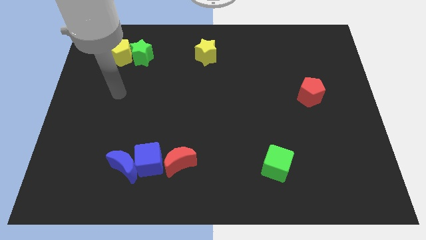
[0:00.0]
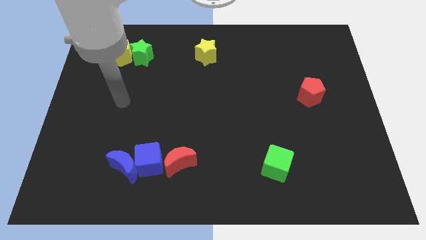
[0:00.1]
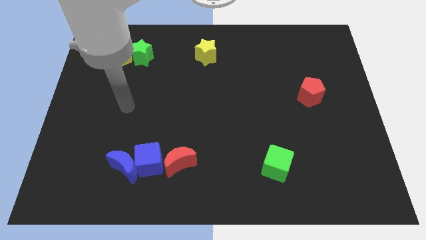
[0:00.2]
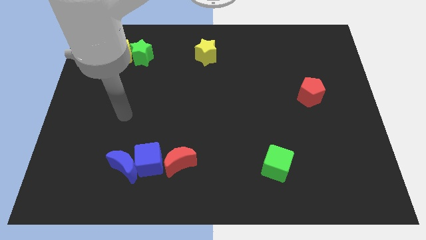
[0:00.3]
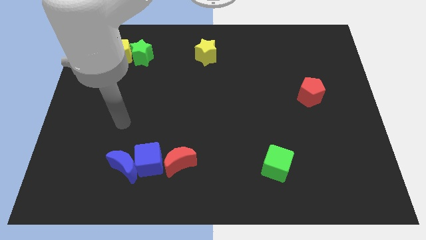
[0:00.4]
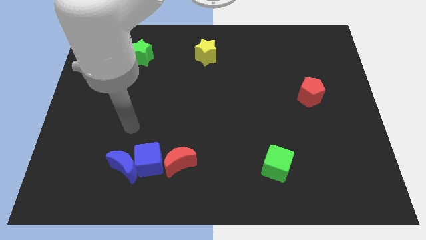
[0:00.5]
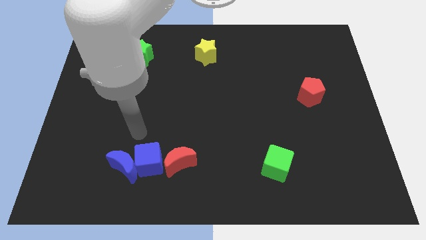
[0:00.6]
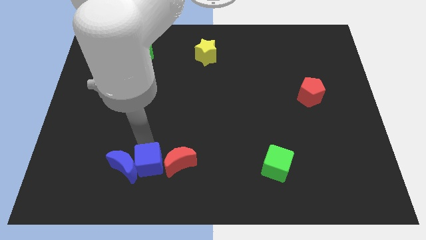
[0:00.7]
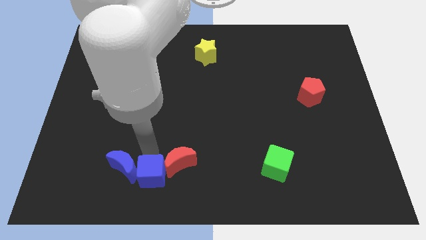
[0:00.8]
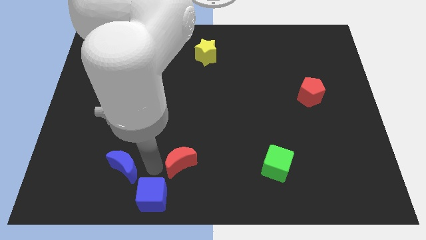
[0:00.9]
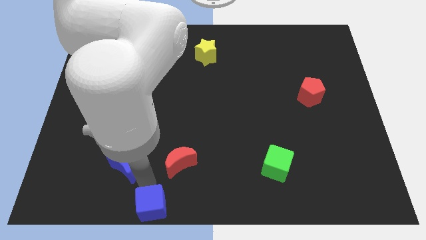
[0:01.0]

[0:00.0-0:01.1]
separate the blue moon from the blue cube

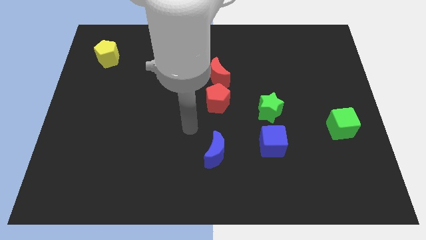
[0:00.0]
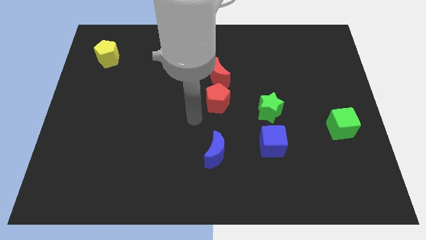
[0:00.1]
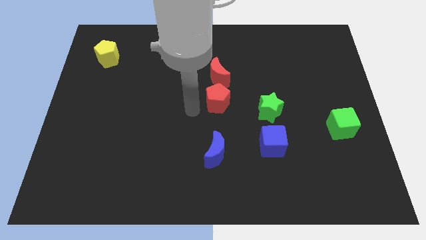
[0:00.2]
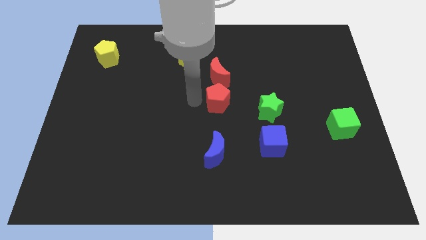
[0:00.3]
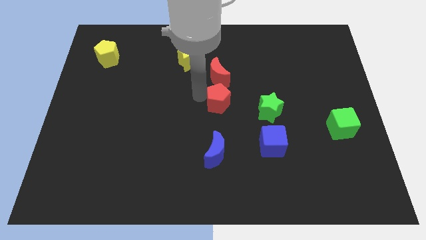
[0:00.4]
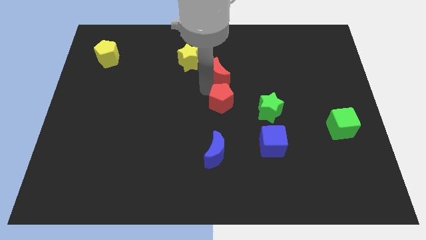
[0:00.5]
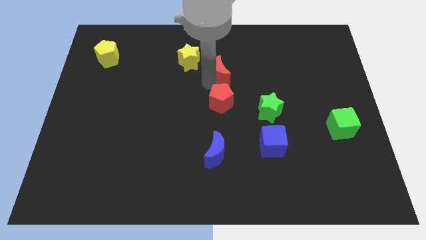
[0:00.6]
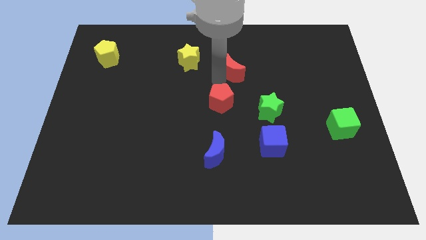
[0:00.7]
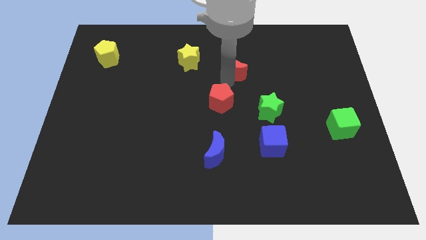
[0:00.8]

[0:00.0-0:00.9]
move the red pentagon away from the red moon

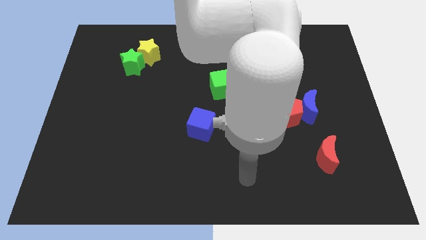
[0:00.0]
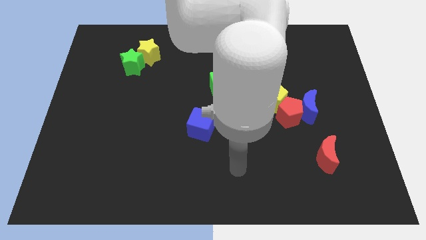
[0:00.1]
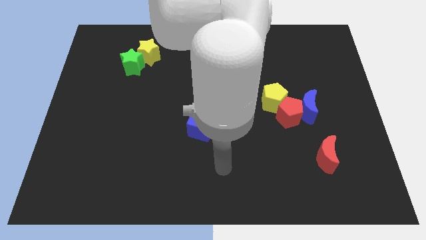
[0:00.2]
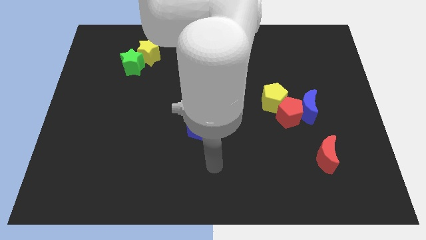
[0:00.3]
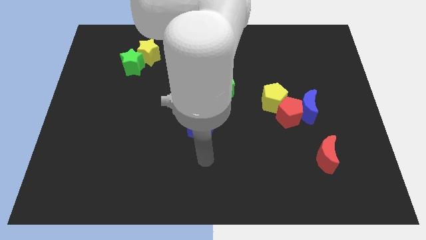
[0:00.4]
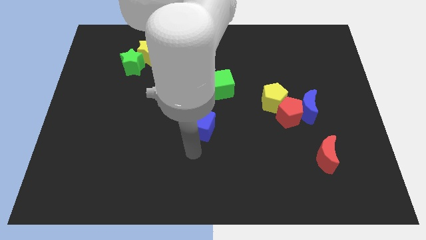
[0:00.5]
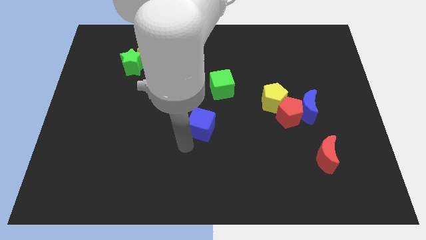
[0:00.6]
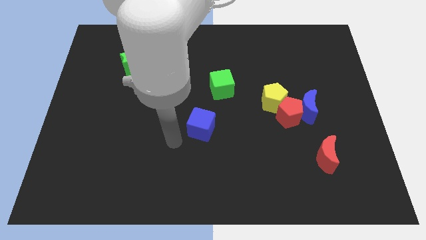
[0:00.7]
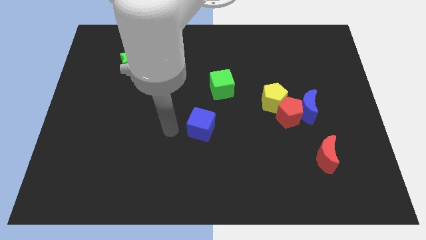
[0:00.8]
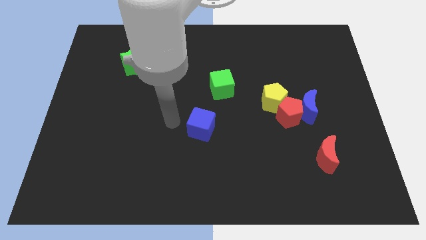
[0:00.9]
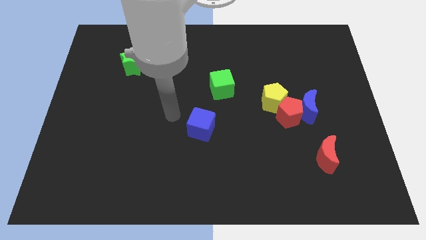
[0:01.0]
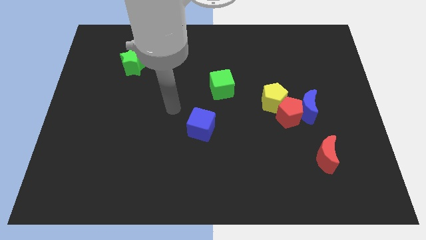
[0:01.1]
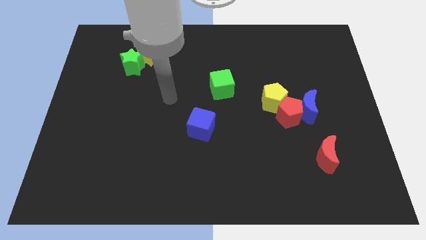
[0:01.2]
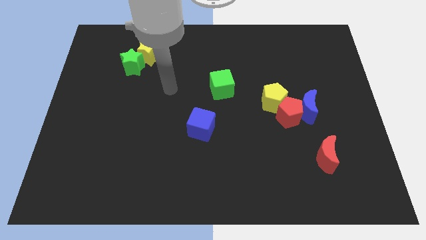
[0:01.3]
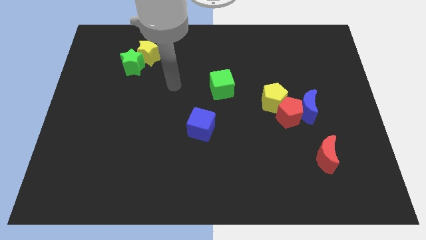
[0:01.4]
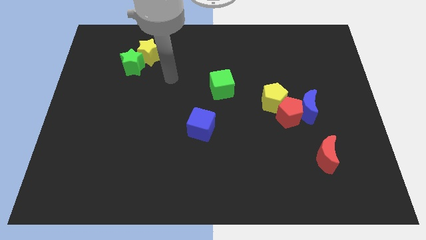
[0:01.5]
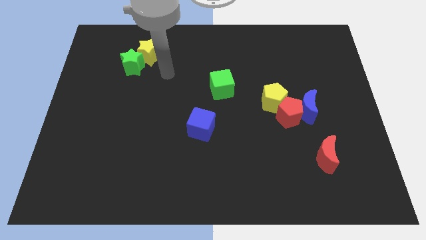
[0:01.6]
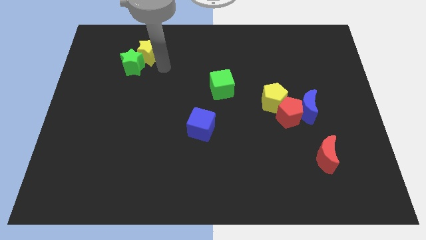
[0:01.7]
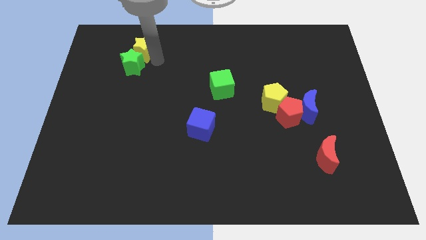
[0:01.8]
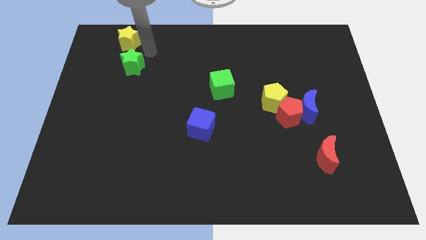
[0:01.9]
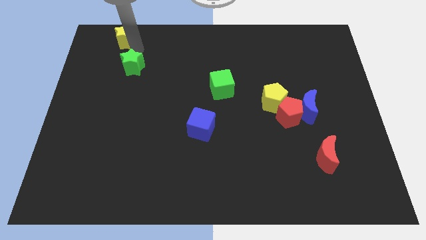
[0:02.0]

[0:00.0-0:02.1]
move the green star away from the yellow star

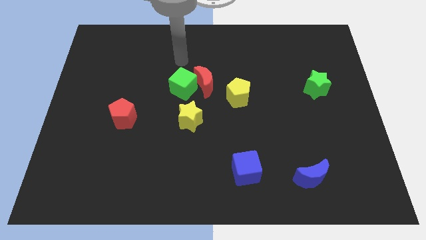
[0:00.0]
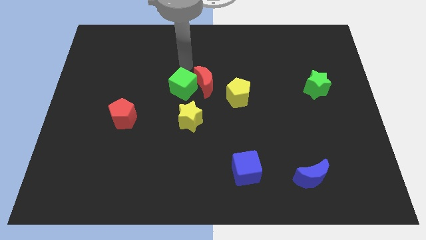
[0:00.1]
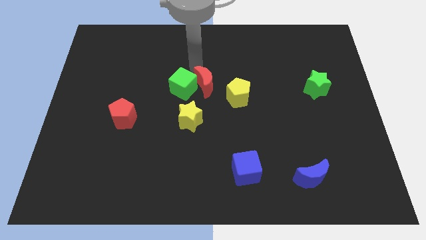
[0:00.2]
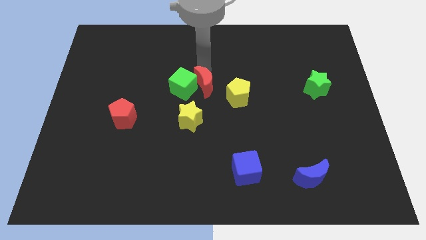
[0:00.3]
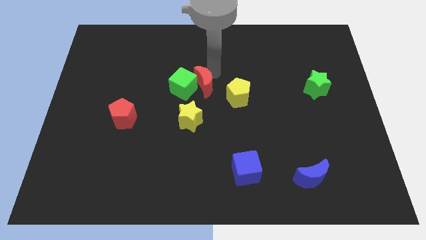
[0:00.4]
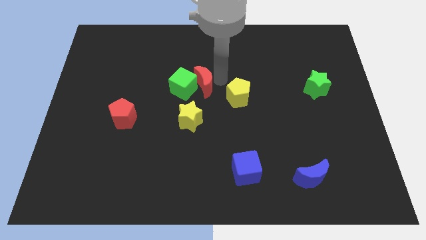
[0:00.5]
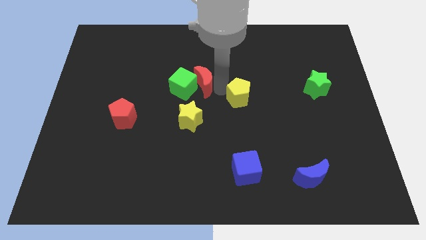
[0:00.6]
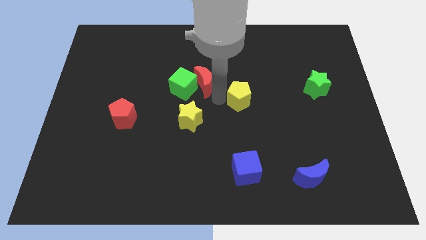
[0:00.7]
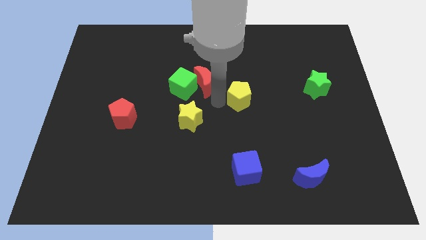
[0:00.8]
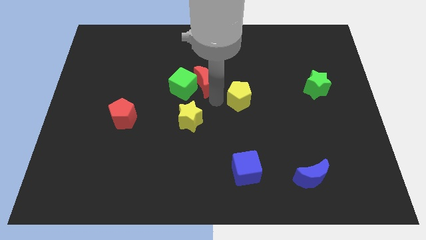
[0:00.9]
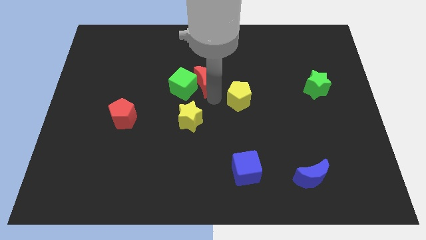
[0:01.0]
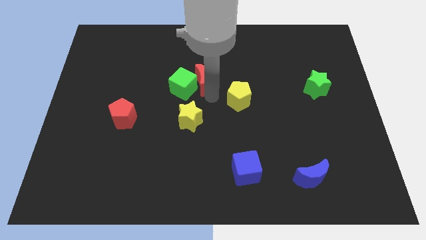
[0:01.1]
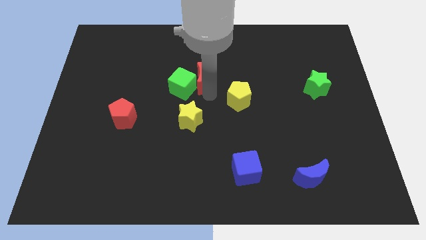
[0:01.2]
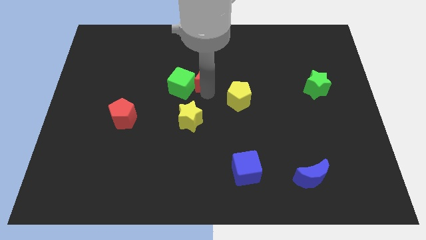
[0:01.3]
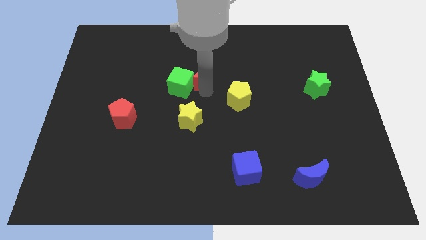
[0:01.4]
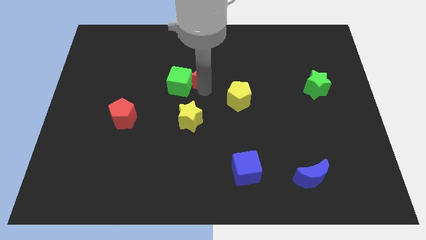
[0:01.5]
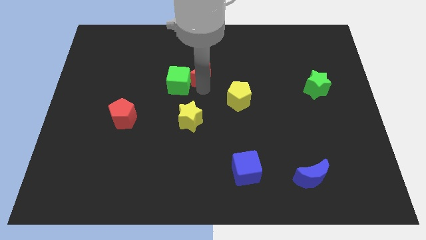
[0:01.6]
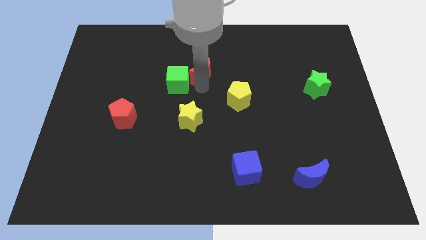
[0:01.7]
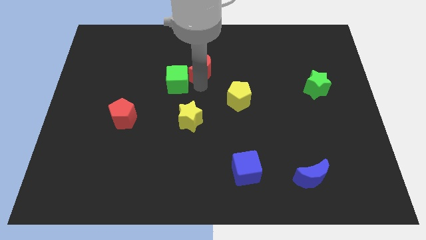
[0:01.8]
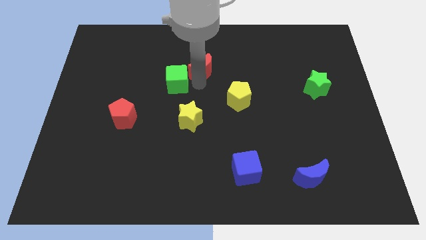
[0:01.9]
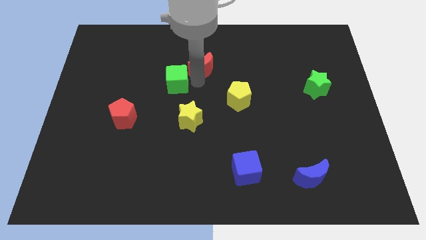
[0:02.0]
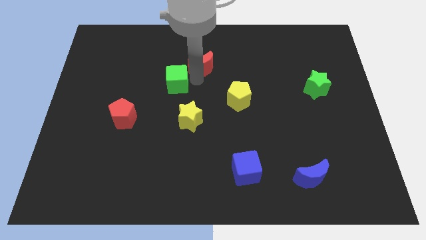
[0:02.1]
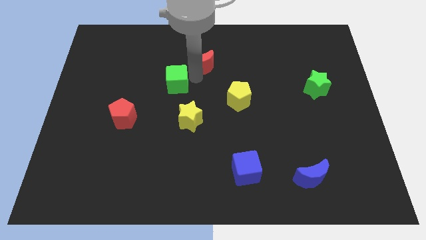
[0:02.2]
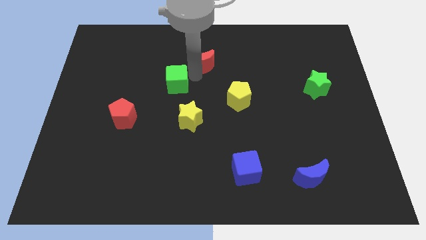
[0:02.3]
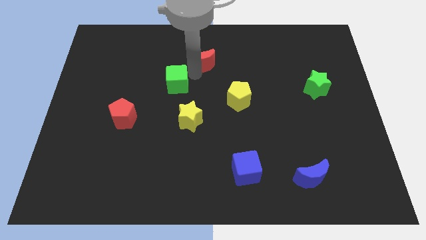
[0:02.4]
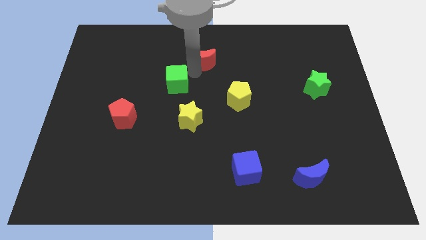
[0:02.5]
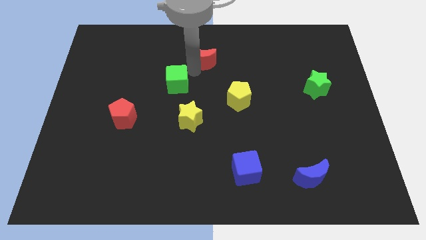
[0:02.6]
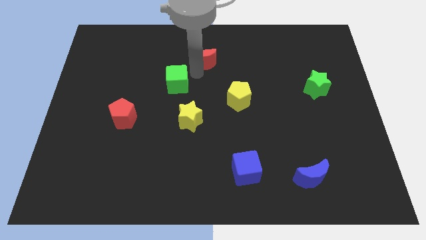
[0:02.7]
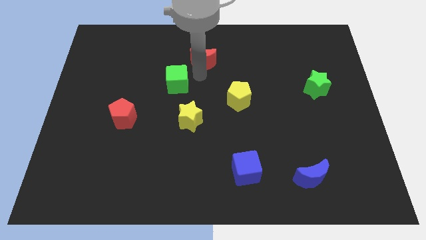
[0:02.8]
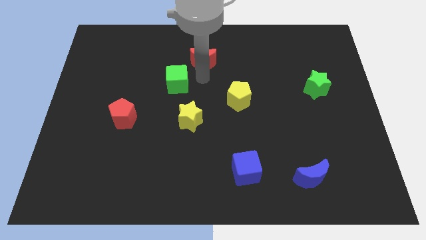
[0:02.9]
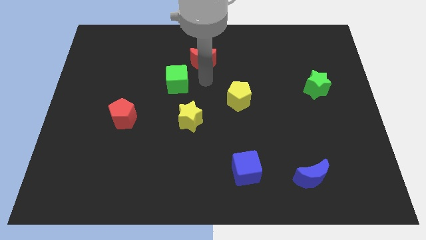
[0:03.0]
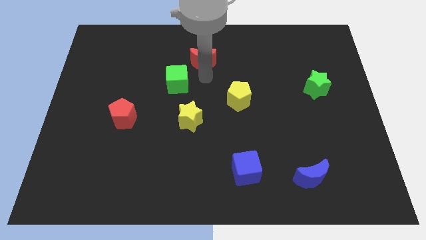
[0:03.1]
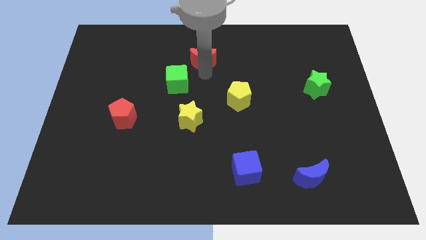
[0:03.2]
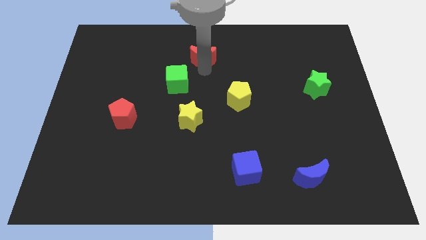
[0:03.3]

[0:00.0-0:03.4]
separate the red moon from the green cube and yellow pentagon

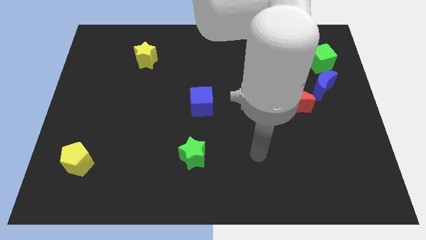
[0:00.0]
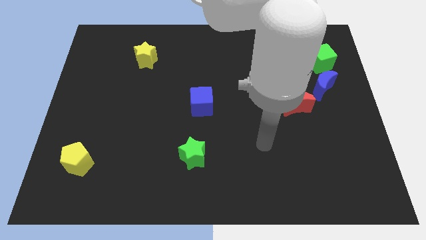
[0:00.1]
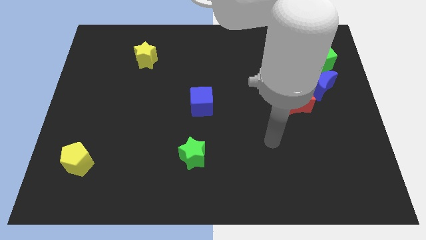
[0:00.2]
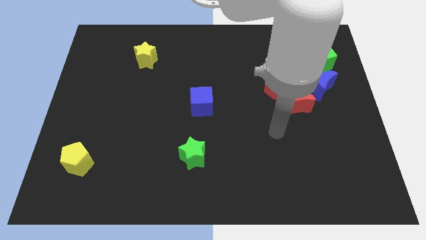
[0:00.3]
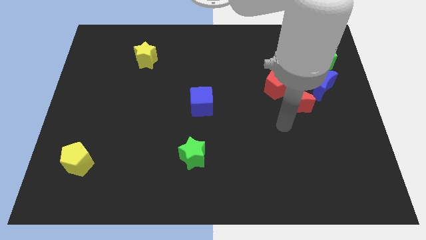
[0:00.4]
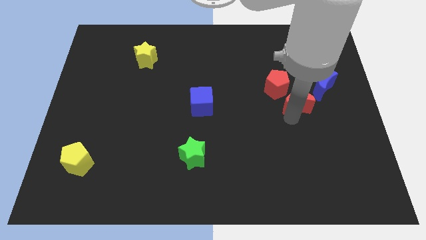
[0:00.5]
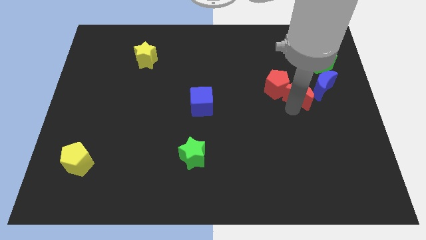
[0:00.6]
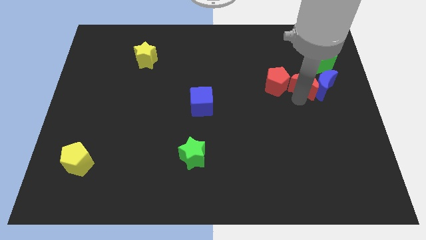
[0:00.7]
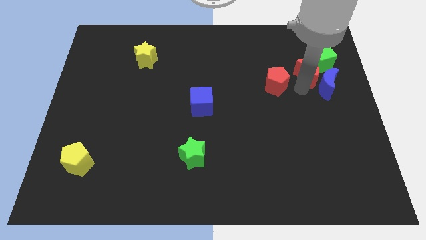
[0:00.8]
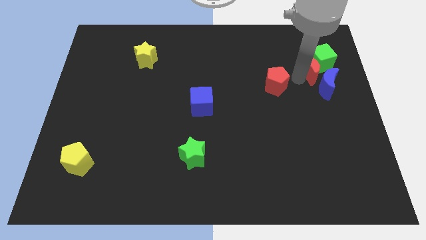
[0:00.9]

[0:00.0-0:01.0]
separate the red pentagon from the red moon

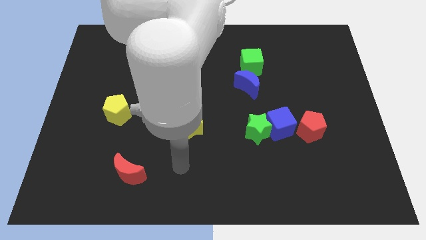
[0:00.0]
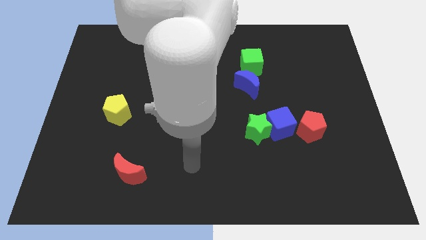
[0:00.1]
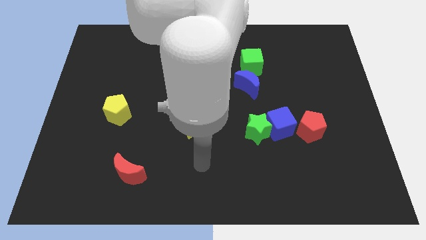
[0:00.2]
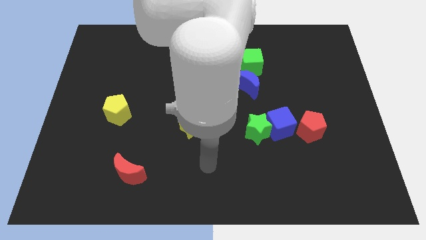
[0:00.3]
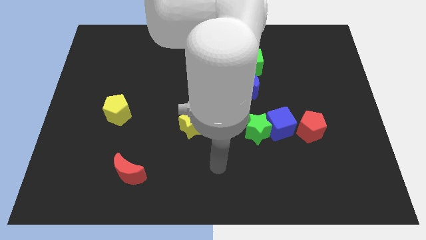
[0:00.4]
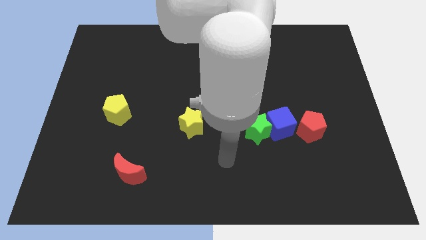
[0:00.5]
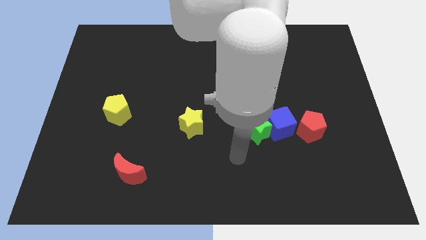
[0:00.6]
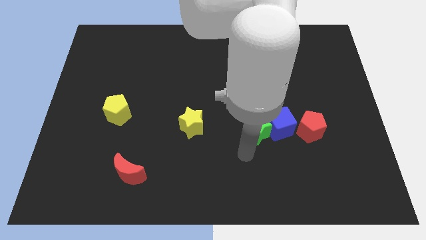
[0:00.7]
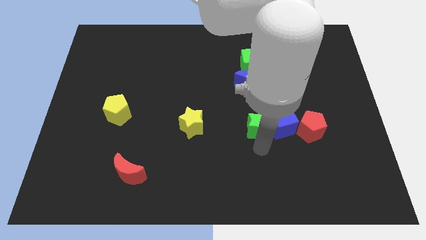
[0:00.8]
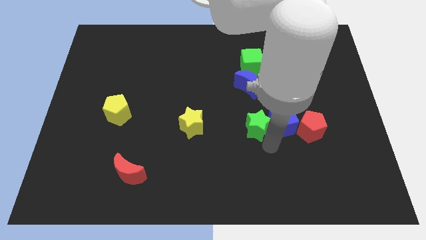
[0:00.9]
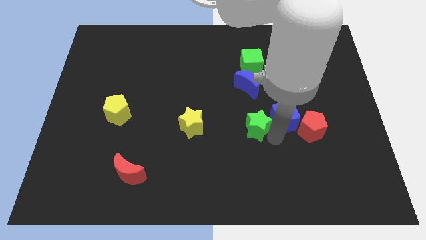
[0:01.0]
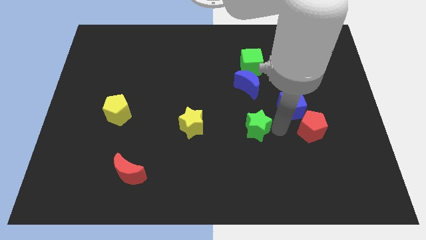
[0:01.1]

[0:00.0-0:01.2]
pull the green star apart from the blue cube
